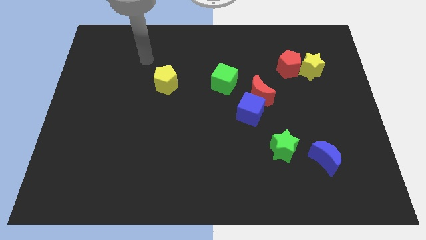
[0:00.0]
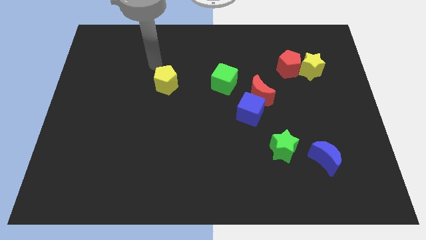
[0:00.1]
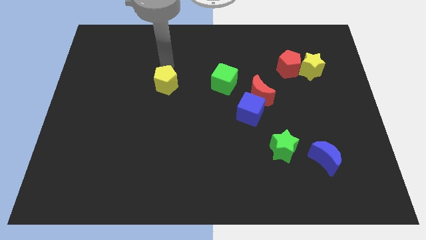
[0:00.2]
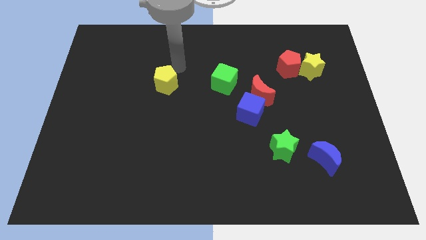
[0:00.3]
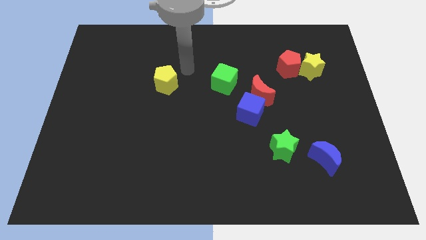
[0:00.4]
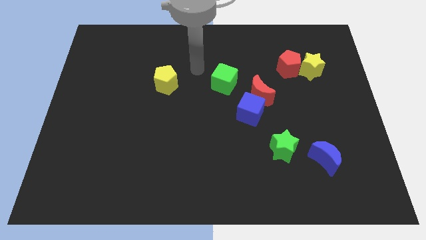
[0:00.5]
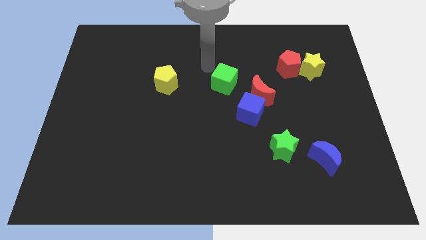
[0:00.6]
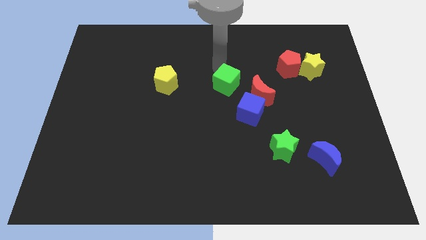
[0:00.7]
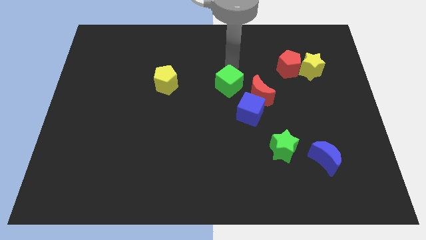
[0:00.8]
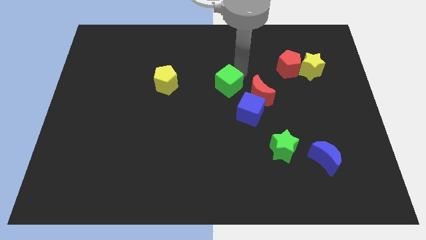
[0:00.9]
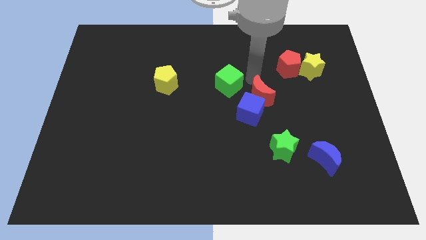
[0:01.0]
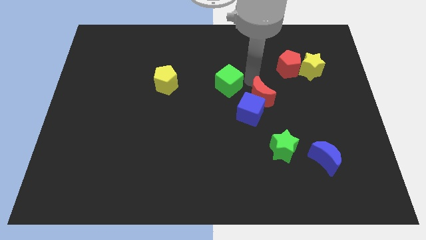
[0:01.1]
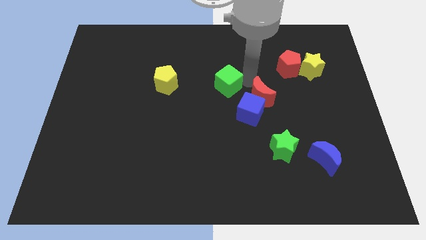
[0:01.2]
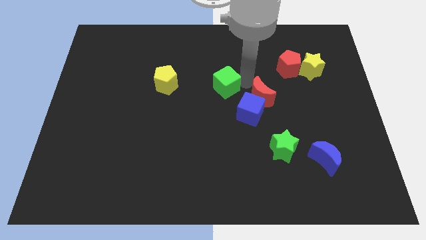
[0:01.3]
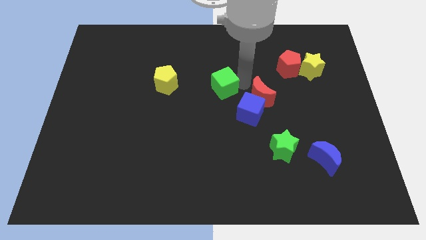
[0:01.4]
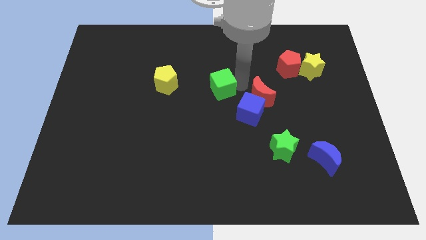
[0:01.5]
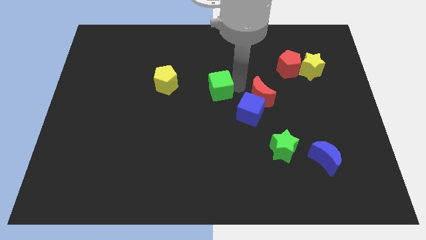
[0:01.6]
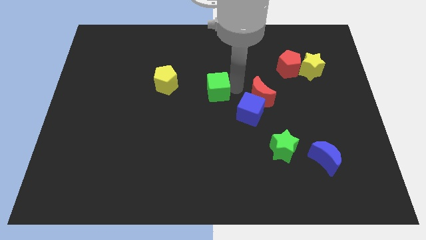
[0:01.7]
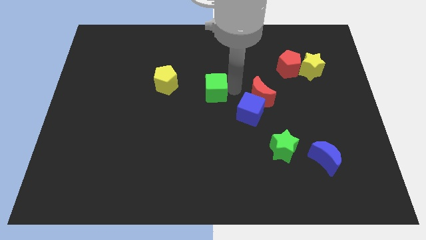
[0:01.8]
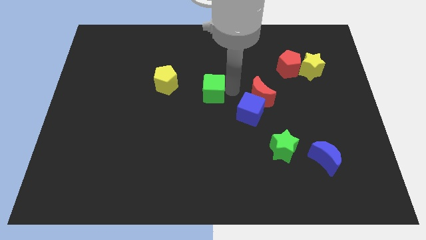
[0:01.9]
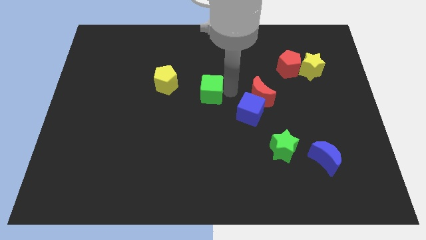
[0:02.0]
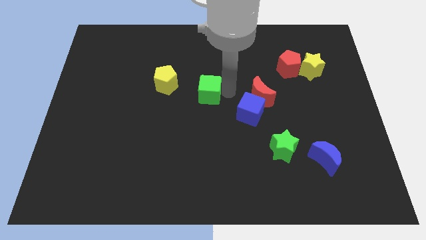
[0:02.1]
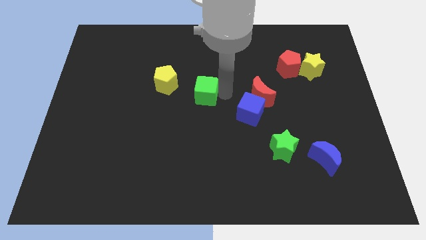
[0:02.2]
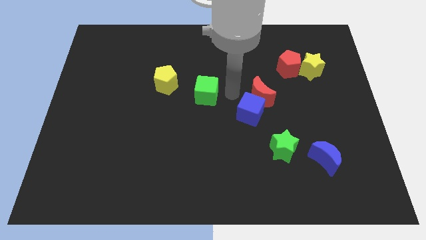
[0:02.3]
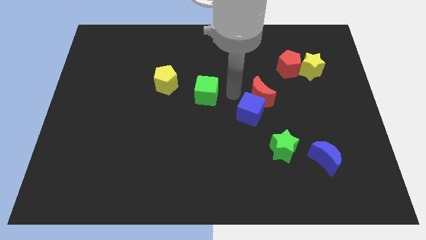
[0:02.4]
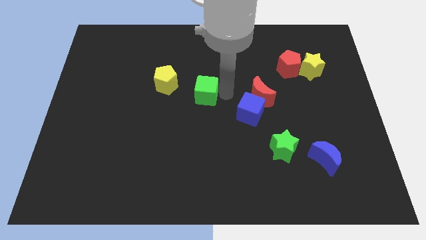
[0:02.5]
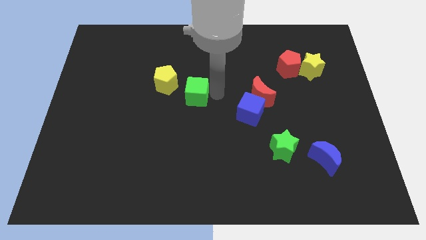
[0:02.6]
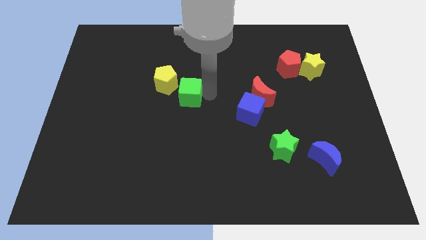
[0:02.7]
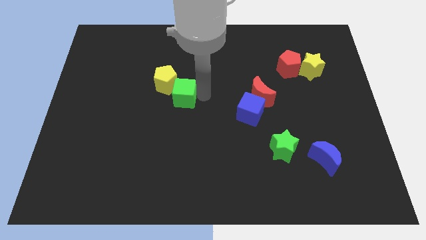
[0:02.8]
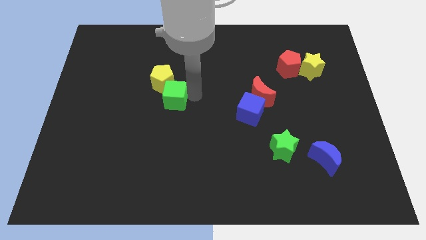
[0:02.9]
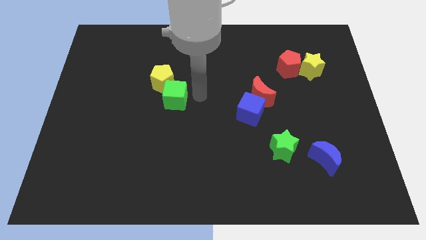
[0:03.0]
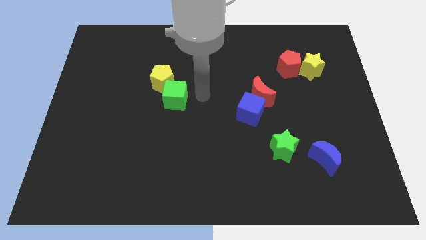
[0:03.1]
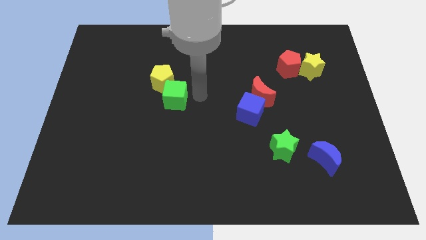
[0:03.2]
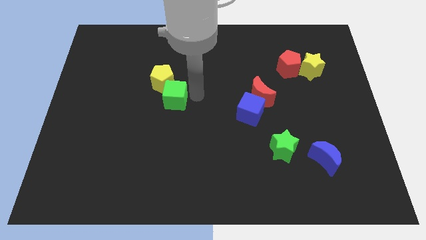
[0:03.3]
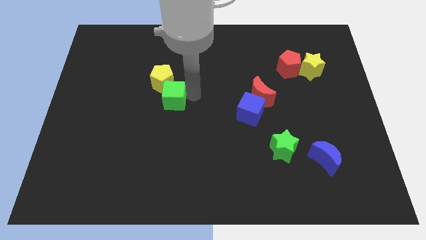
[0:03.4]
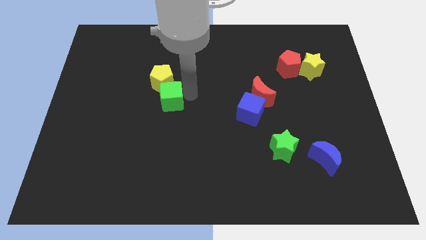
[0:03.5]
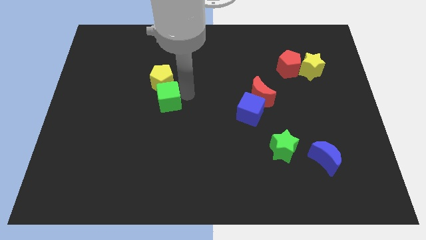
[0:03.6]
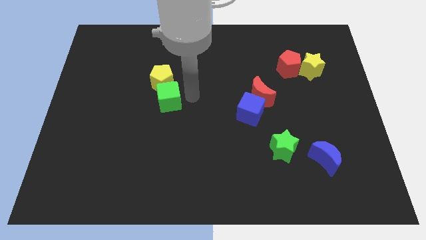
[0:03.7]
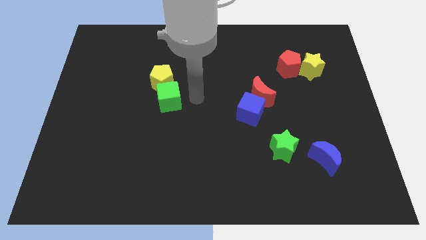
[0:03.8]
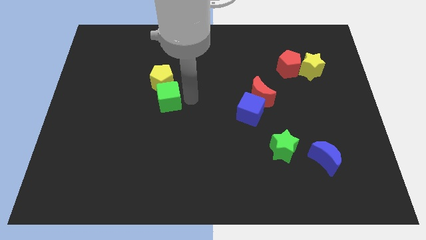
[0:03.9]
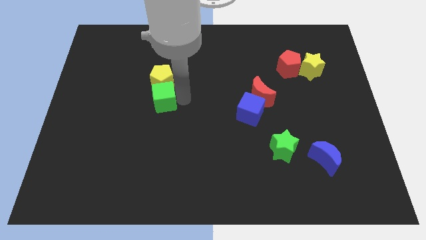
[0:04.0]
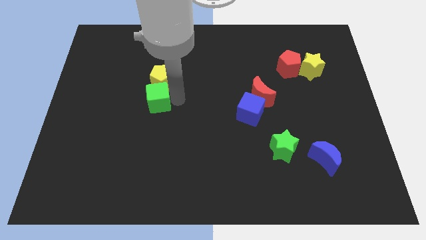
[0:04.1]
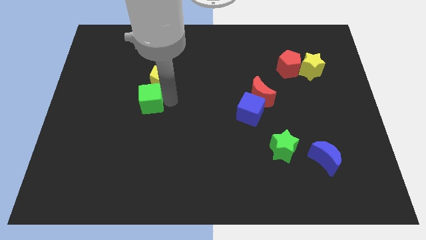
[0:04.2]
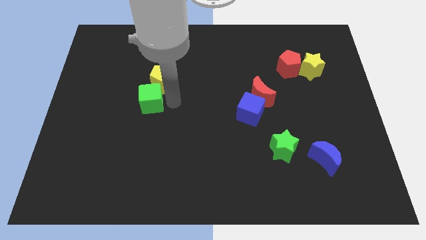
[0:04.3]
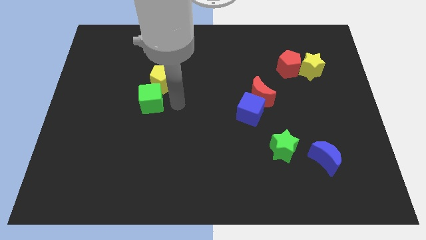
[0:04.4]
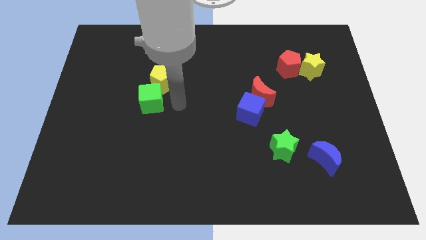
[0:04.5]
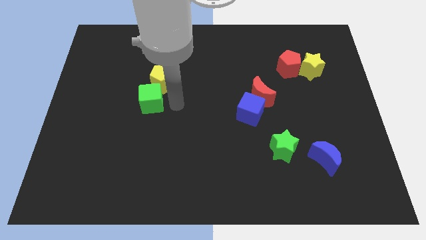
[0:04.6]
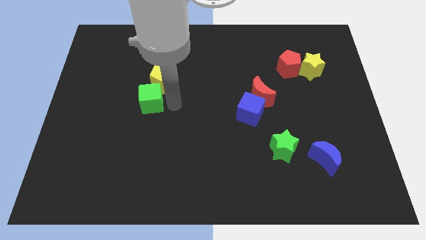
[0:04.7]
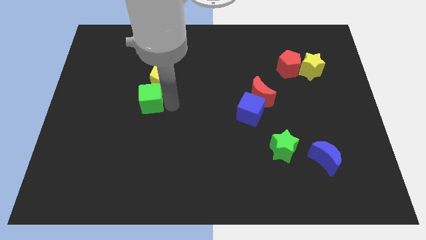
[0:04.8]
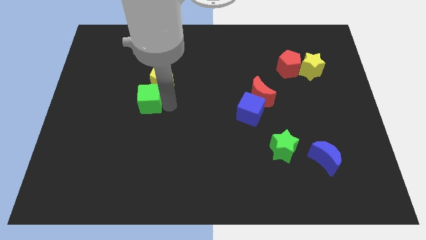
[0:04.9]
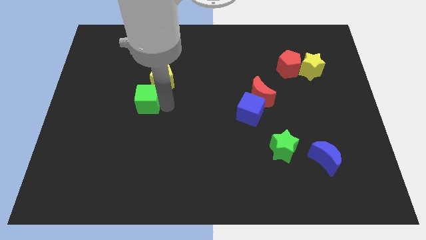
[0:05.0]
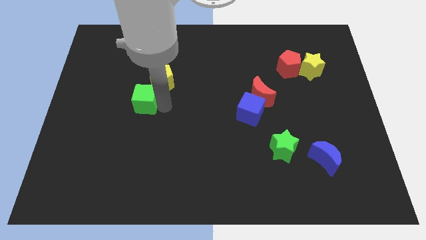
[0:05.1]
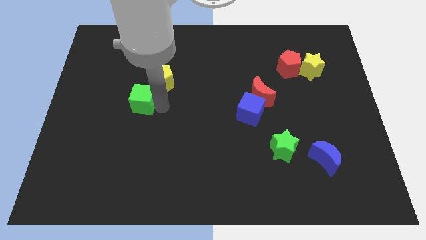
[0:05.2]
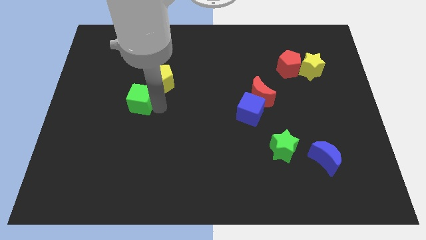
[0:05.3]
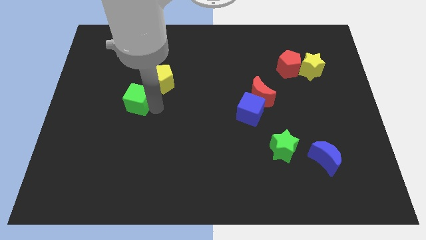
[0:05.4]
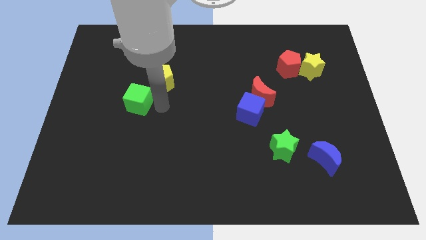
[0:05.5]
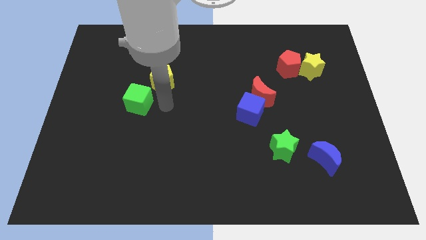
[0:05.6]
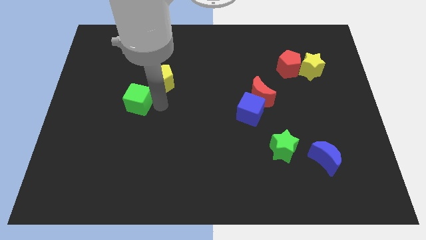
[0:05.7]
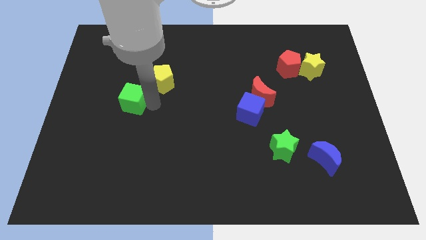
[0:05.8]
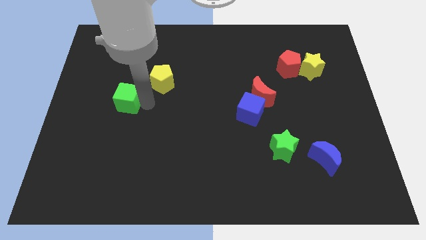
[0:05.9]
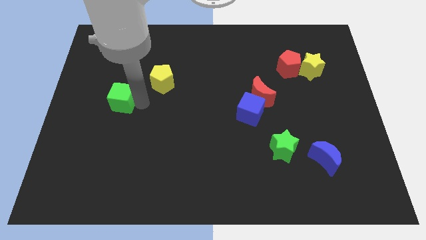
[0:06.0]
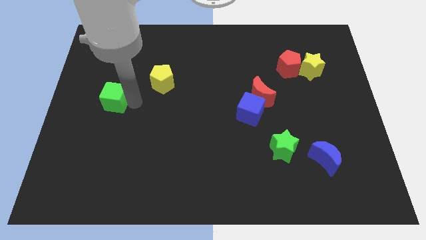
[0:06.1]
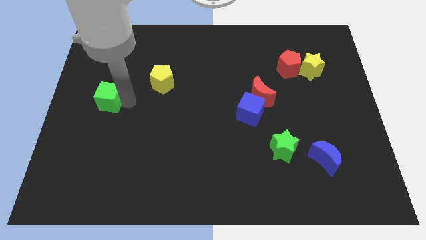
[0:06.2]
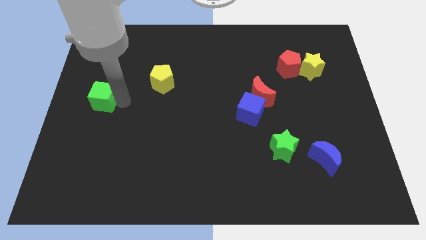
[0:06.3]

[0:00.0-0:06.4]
slide the green cube to the center left
